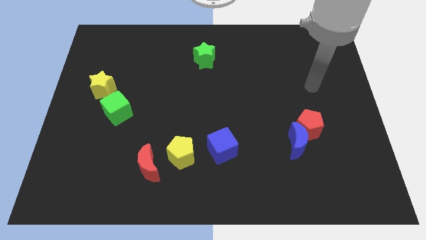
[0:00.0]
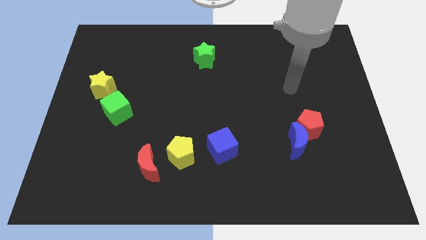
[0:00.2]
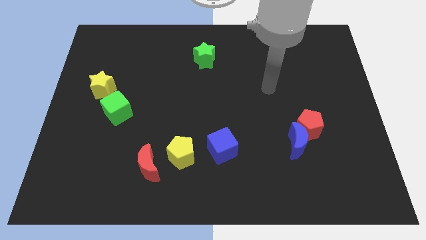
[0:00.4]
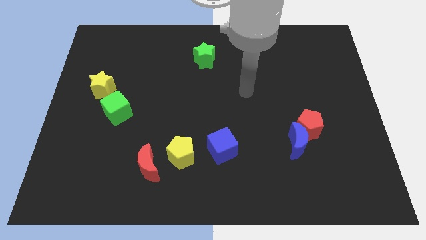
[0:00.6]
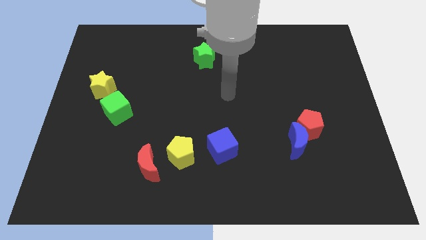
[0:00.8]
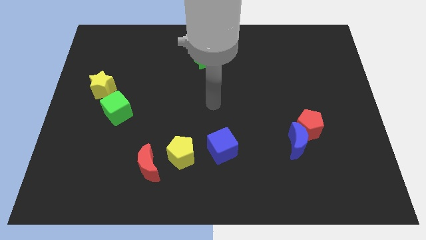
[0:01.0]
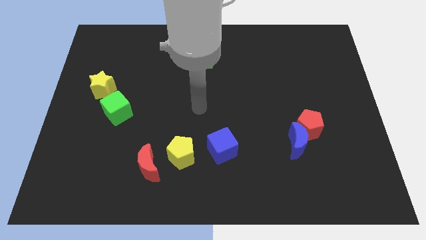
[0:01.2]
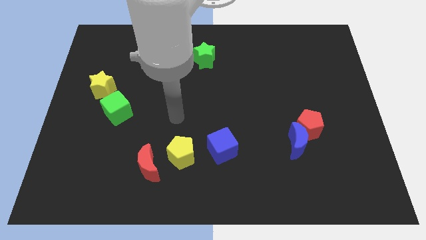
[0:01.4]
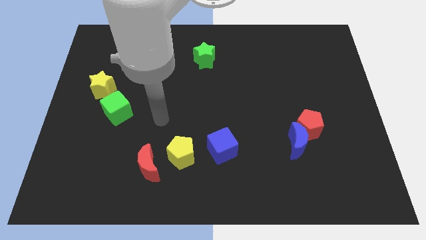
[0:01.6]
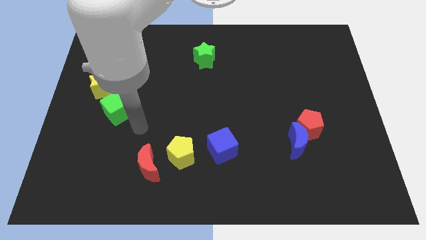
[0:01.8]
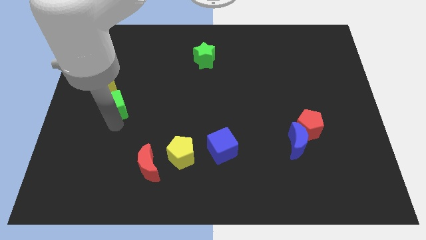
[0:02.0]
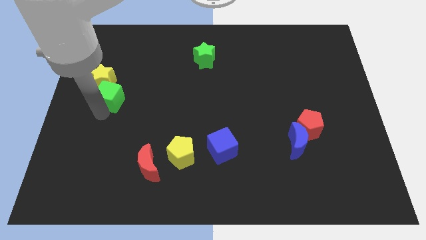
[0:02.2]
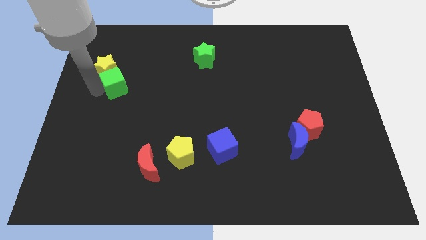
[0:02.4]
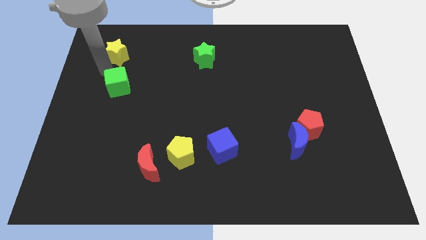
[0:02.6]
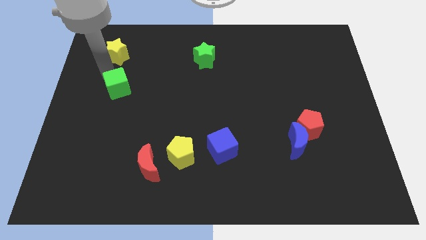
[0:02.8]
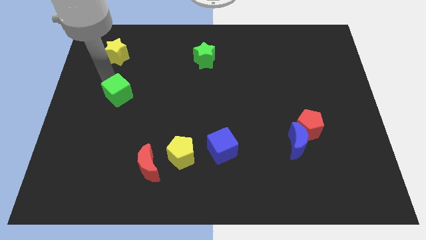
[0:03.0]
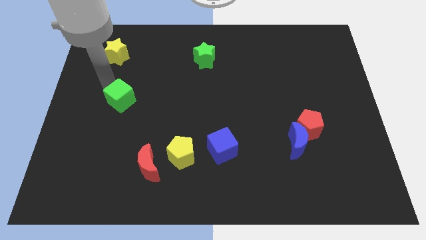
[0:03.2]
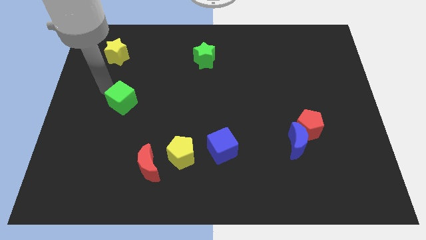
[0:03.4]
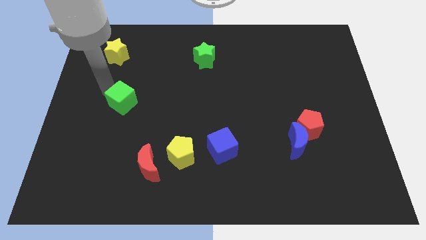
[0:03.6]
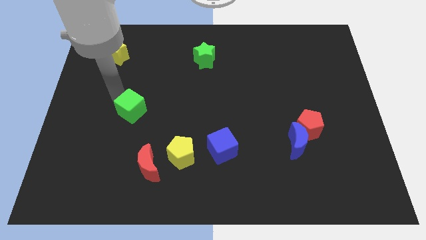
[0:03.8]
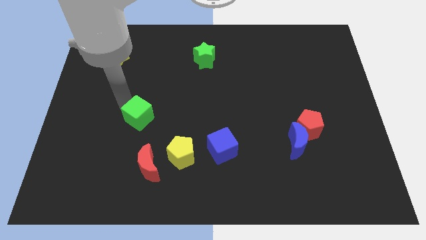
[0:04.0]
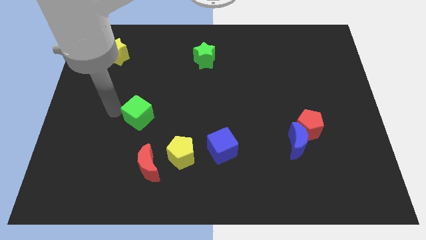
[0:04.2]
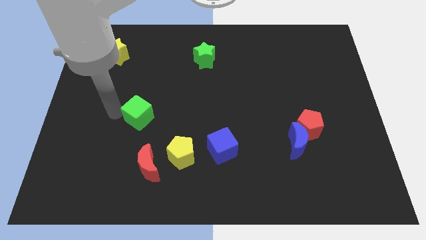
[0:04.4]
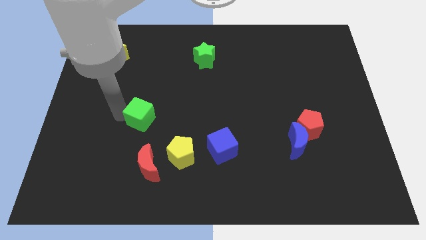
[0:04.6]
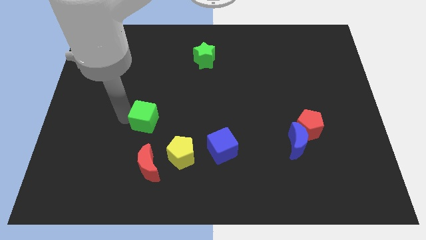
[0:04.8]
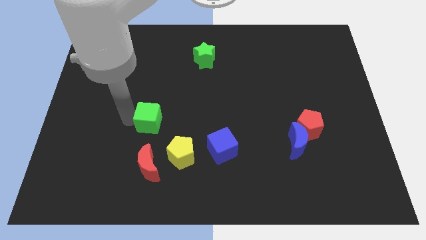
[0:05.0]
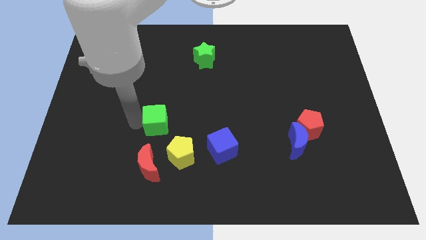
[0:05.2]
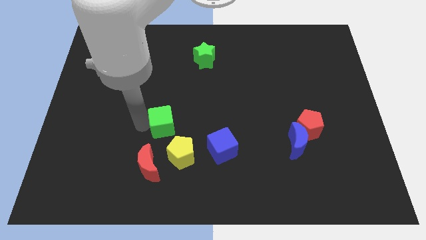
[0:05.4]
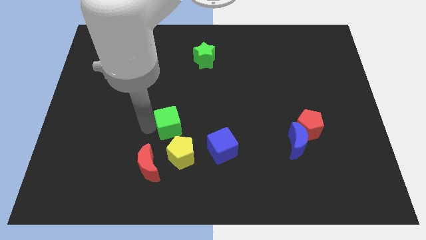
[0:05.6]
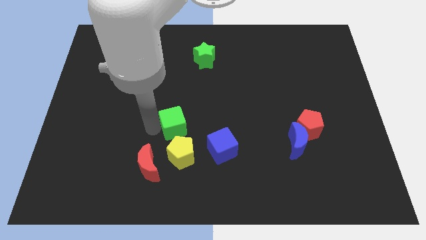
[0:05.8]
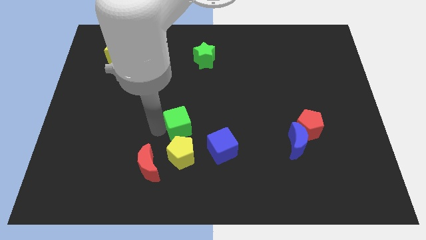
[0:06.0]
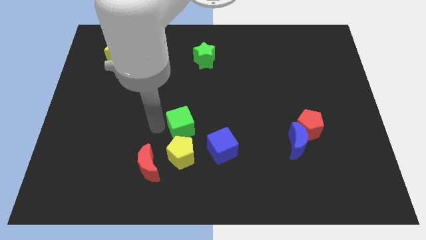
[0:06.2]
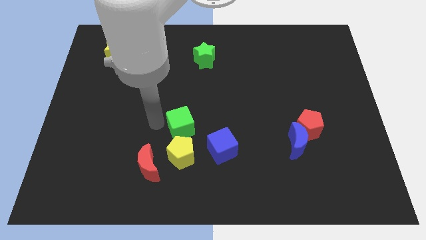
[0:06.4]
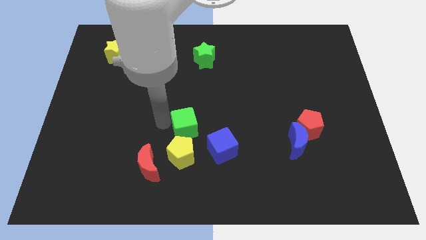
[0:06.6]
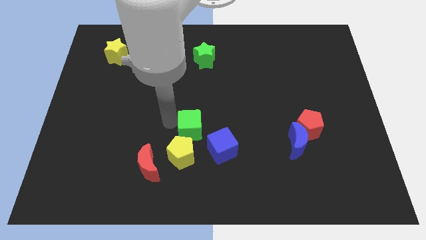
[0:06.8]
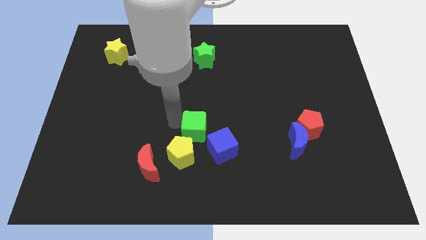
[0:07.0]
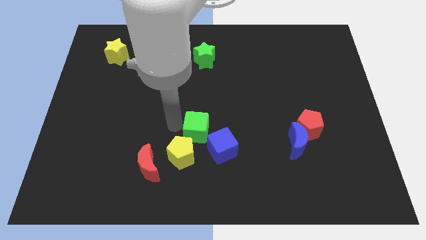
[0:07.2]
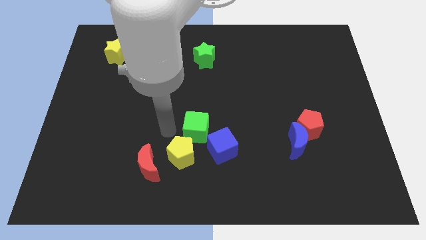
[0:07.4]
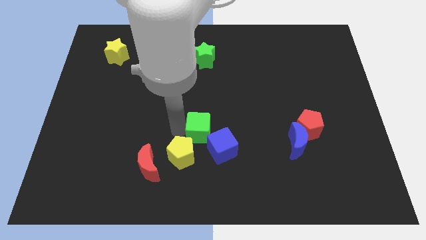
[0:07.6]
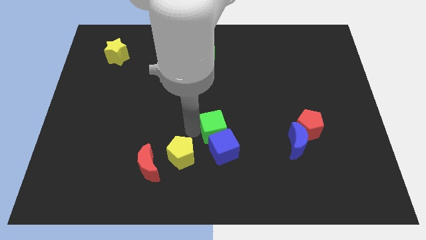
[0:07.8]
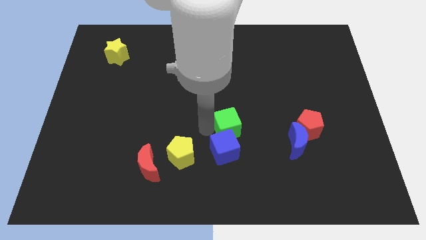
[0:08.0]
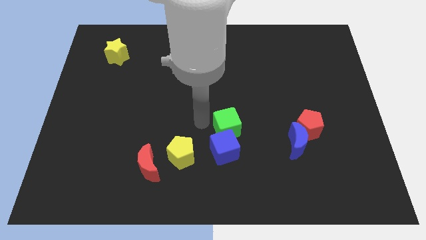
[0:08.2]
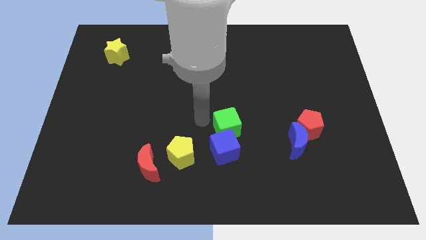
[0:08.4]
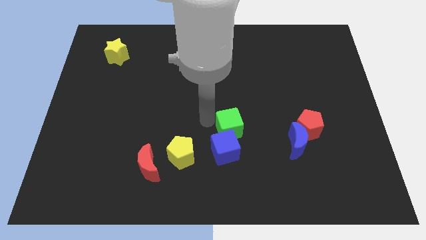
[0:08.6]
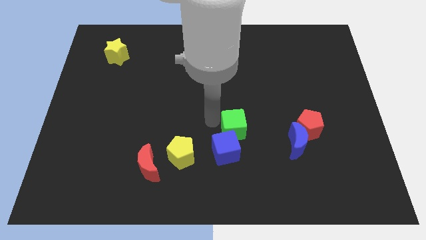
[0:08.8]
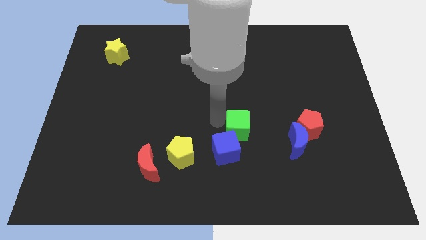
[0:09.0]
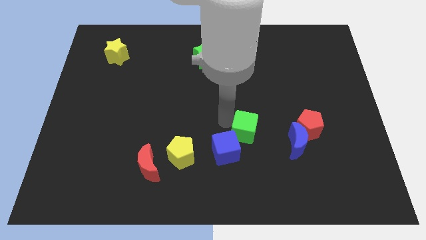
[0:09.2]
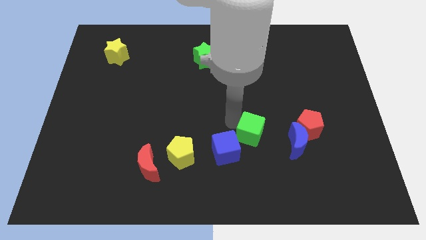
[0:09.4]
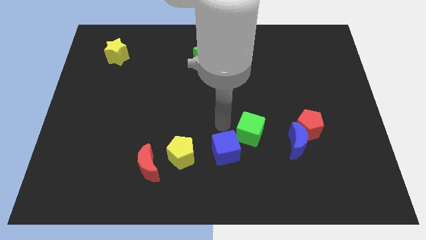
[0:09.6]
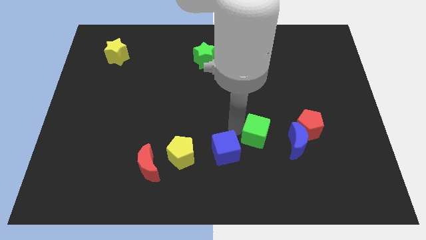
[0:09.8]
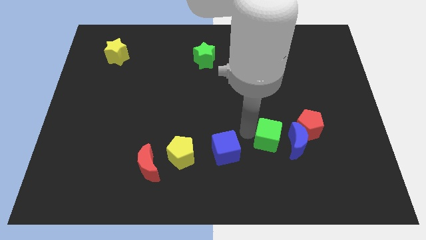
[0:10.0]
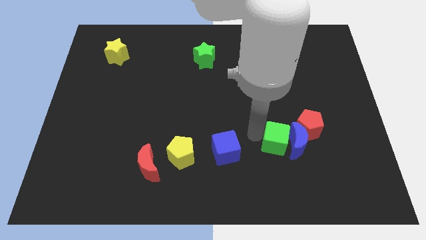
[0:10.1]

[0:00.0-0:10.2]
push the green cube towards the blue moon

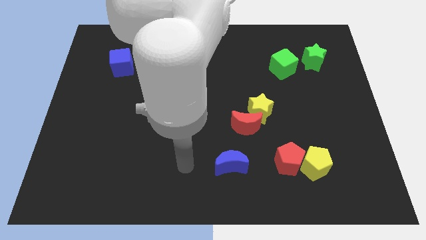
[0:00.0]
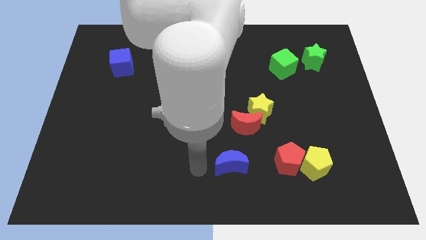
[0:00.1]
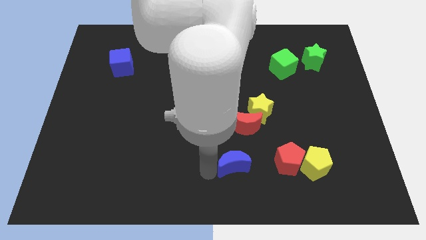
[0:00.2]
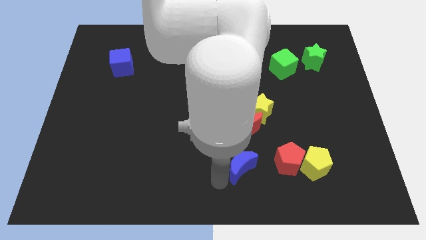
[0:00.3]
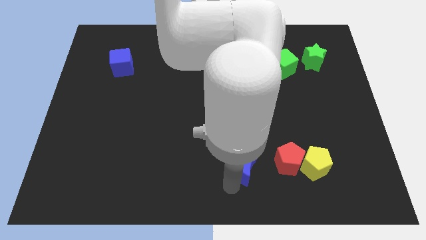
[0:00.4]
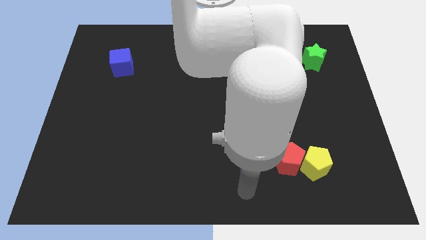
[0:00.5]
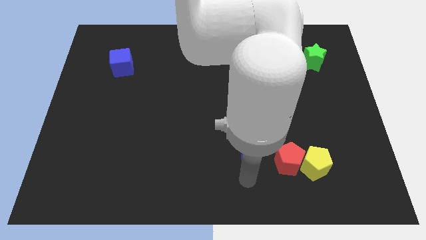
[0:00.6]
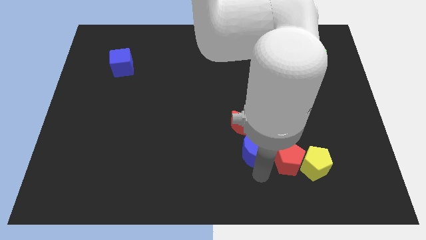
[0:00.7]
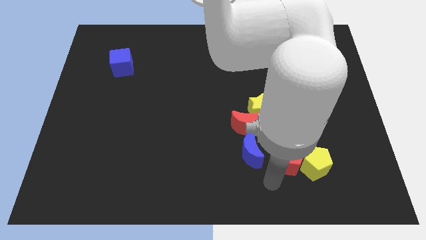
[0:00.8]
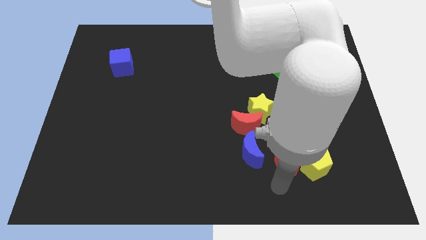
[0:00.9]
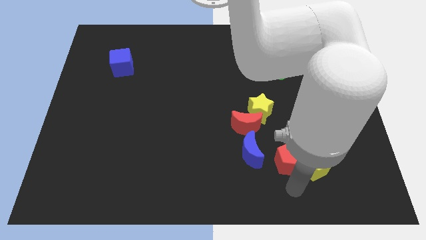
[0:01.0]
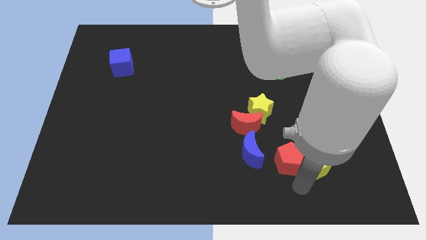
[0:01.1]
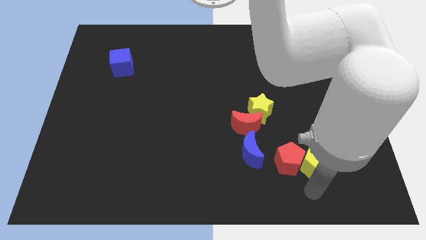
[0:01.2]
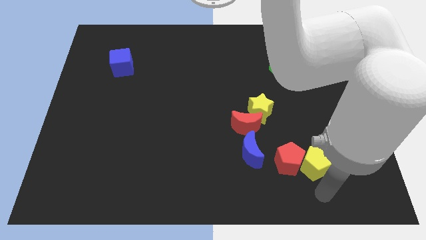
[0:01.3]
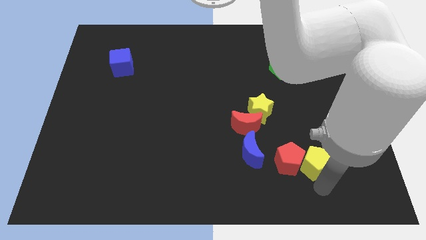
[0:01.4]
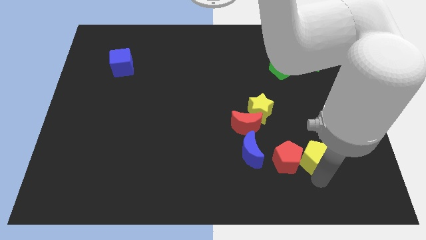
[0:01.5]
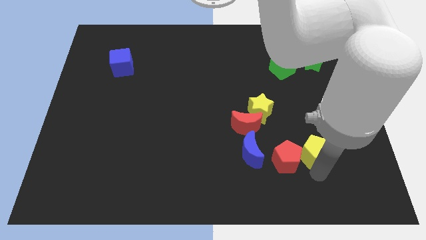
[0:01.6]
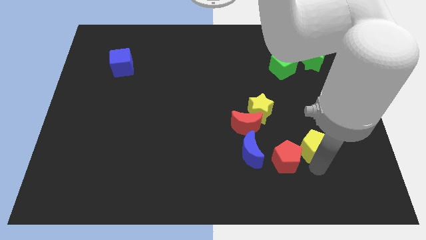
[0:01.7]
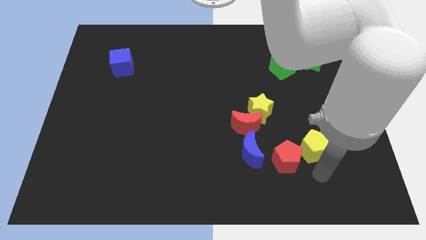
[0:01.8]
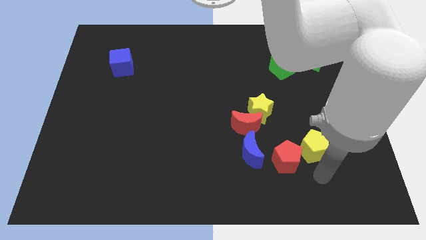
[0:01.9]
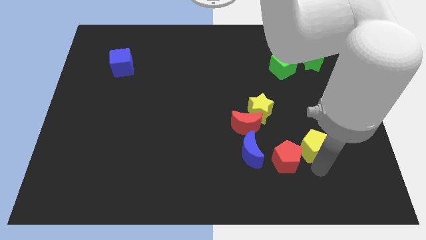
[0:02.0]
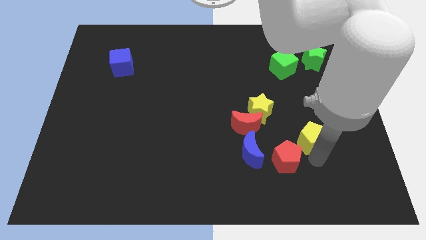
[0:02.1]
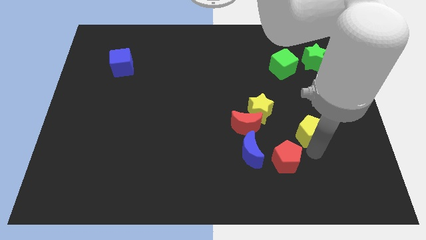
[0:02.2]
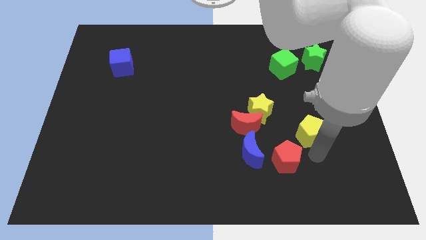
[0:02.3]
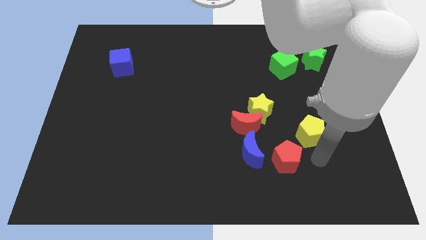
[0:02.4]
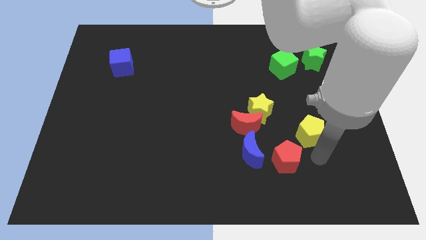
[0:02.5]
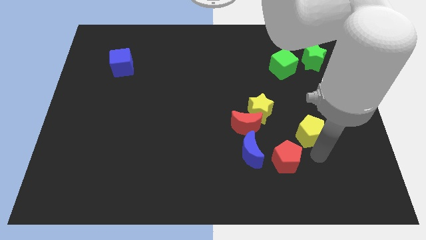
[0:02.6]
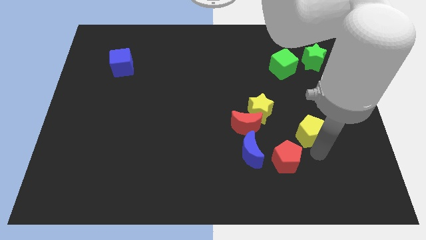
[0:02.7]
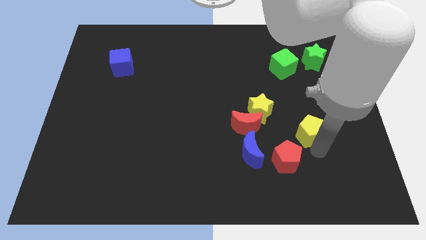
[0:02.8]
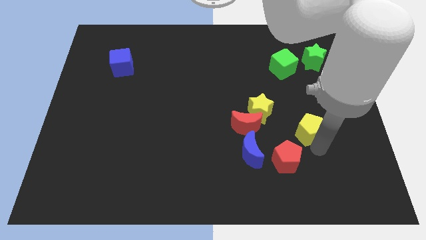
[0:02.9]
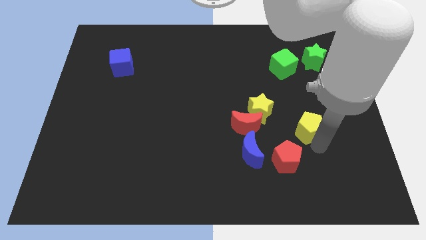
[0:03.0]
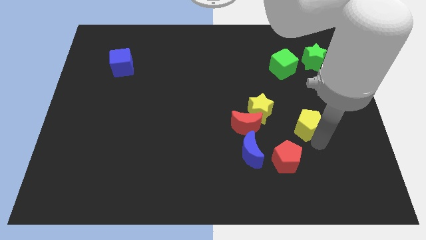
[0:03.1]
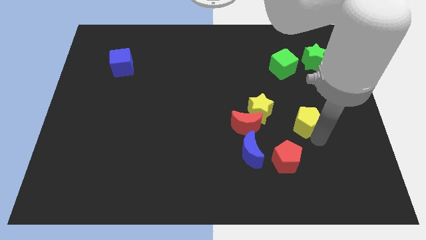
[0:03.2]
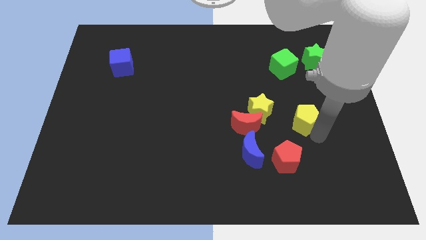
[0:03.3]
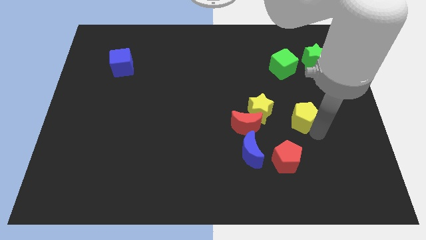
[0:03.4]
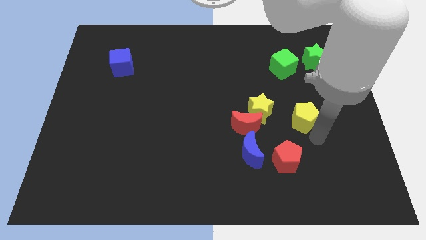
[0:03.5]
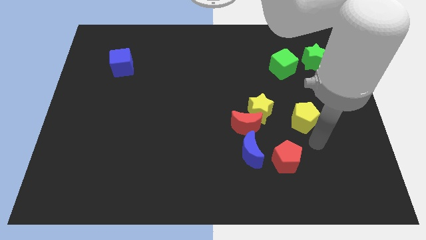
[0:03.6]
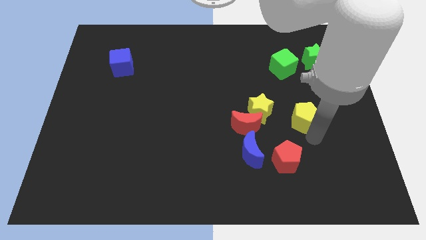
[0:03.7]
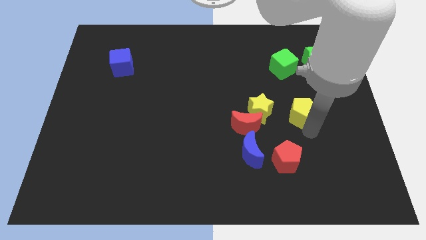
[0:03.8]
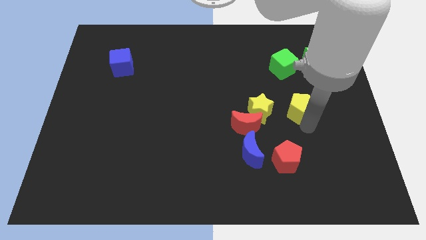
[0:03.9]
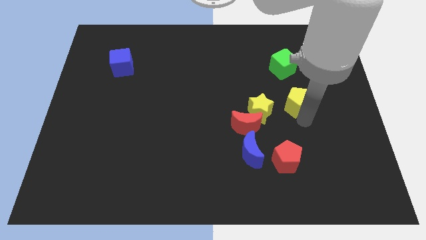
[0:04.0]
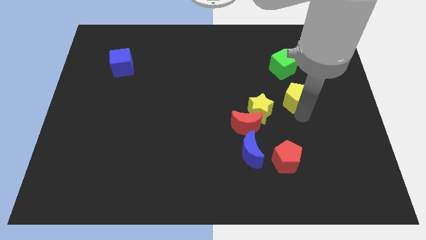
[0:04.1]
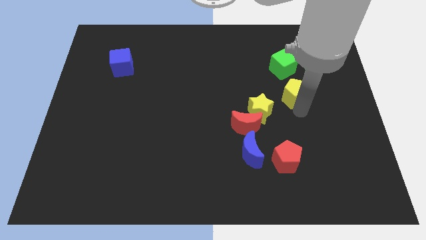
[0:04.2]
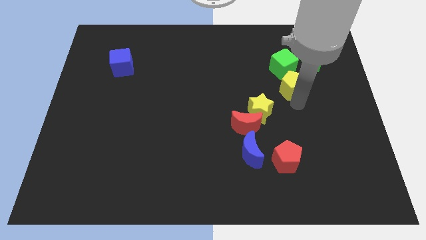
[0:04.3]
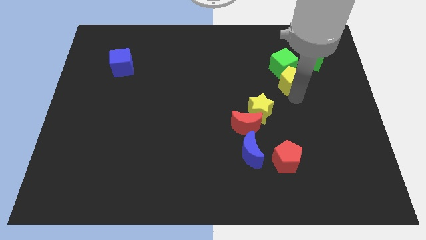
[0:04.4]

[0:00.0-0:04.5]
move the yellow pentagon to the green cube
